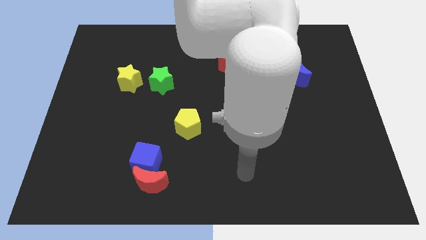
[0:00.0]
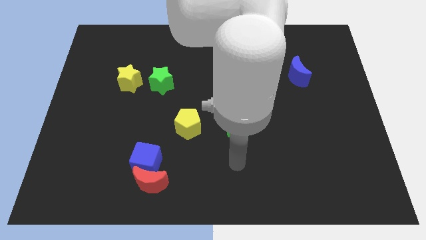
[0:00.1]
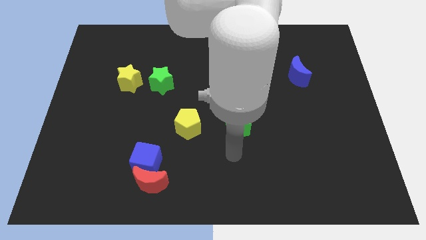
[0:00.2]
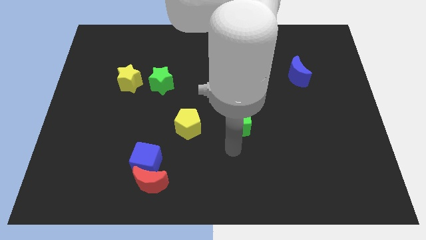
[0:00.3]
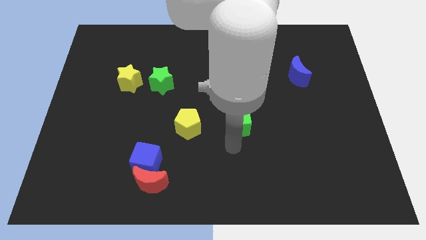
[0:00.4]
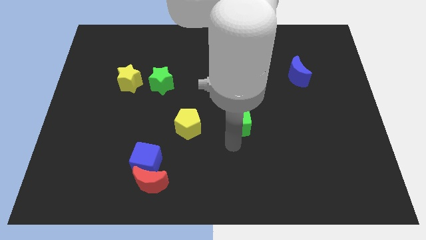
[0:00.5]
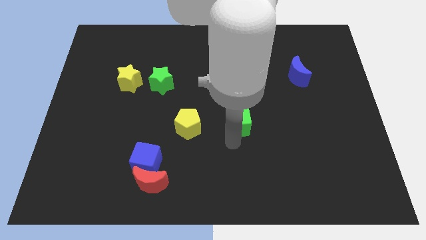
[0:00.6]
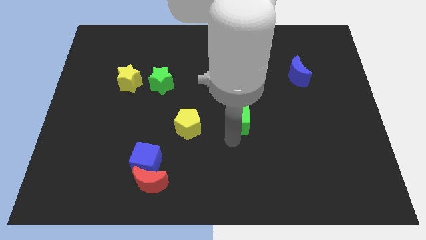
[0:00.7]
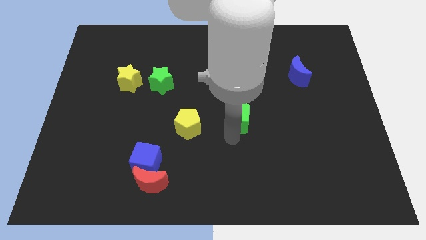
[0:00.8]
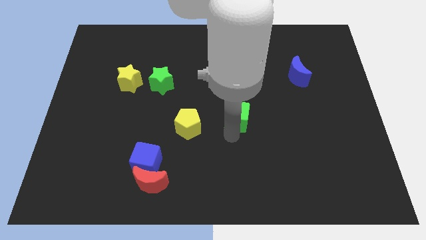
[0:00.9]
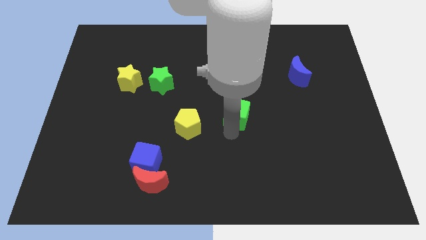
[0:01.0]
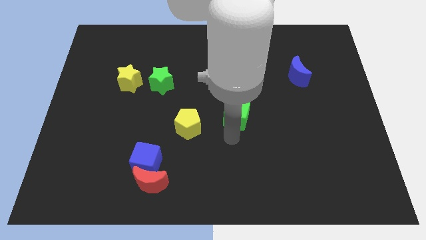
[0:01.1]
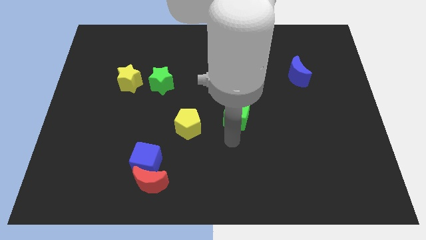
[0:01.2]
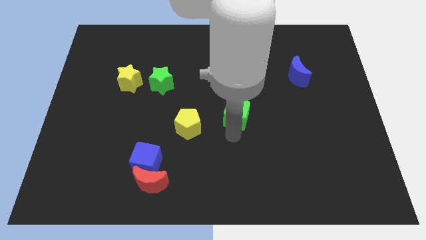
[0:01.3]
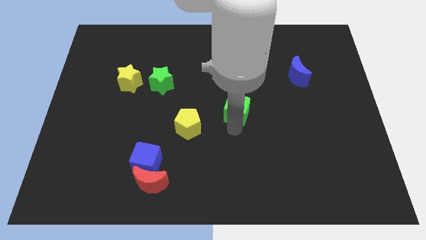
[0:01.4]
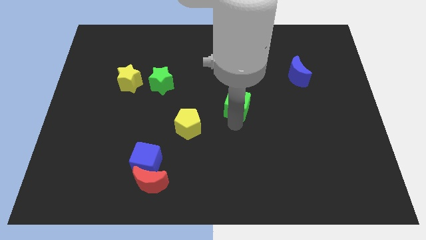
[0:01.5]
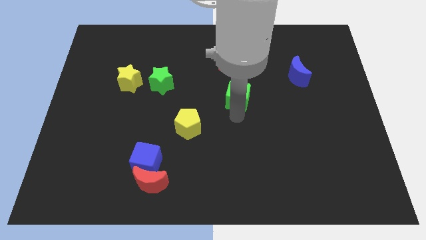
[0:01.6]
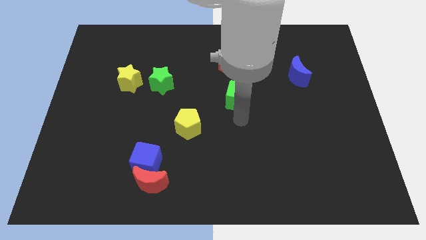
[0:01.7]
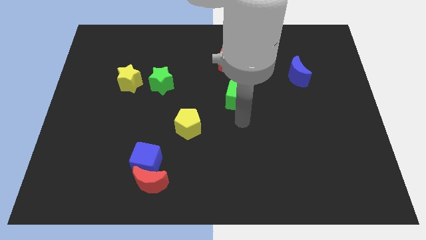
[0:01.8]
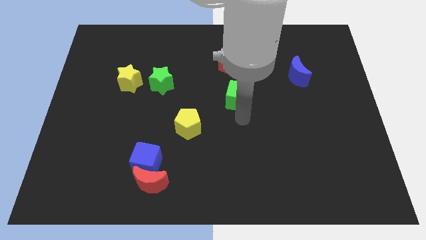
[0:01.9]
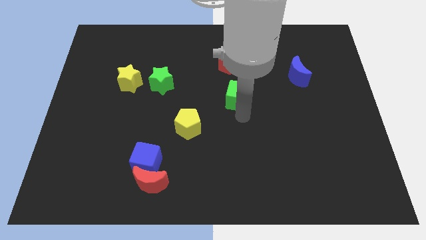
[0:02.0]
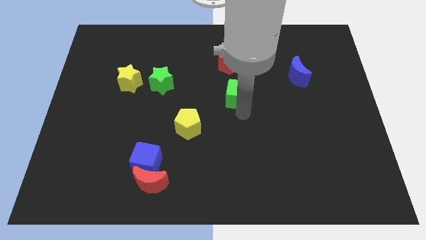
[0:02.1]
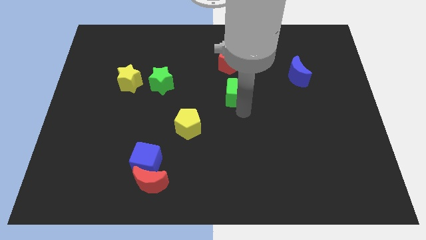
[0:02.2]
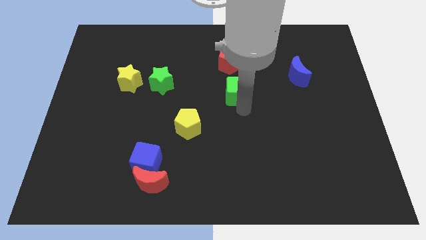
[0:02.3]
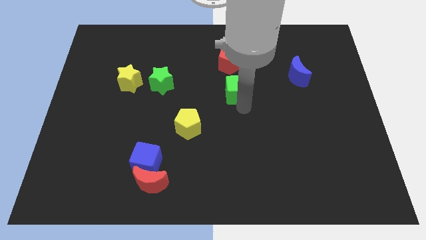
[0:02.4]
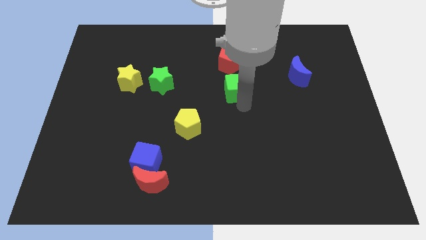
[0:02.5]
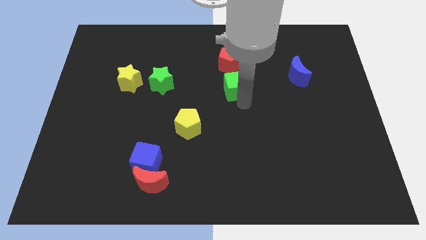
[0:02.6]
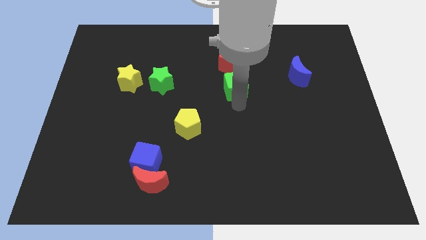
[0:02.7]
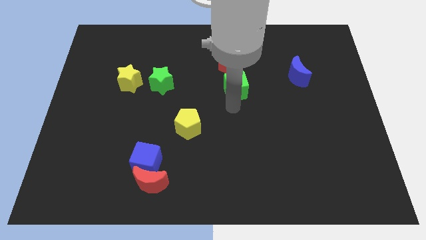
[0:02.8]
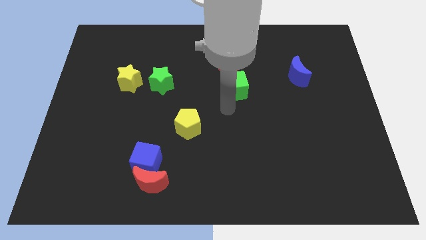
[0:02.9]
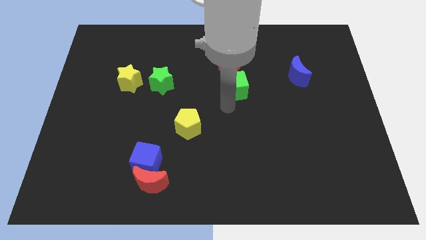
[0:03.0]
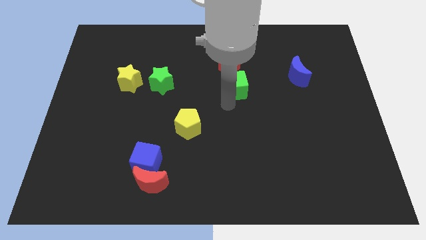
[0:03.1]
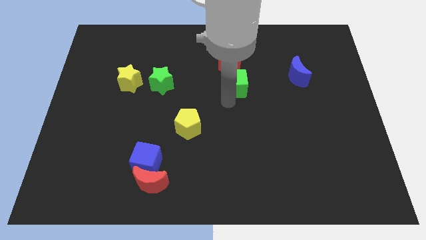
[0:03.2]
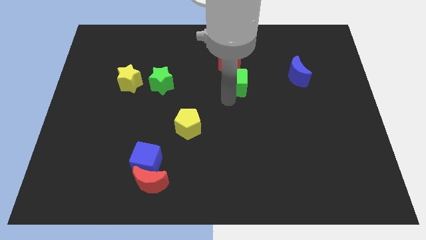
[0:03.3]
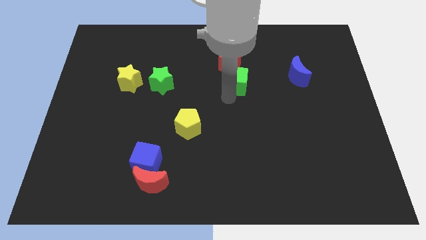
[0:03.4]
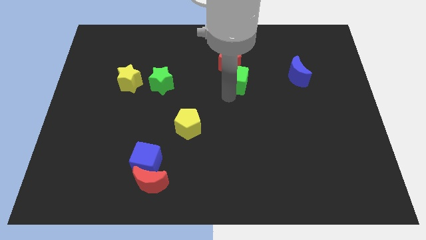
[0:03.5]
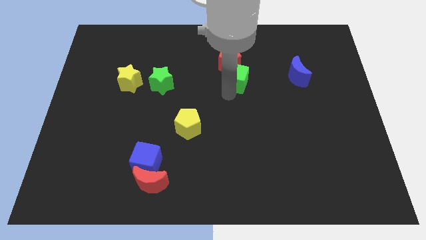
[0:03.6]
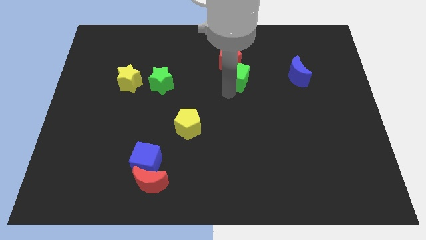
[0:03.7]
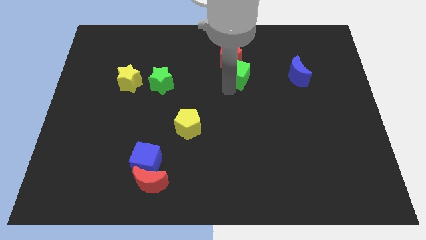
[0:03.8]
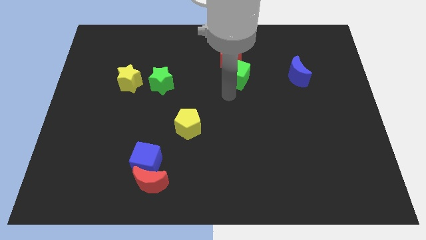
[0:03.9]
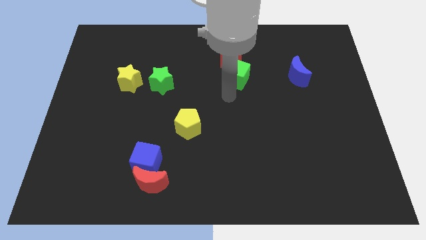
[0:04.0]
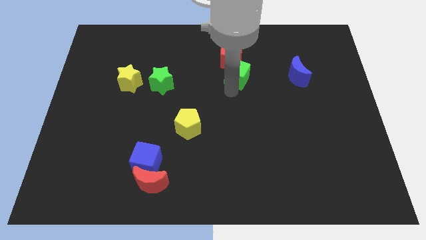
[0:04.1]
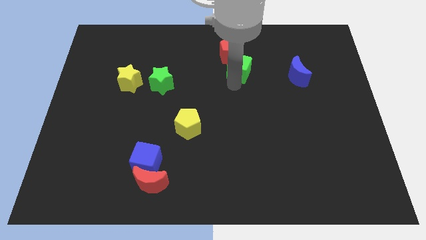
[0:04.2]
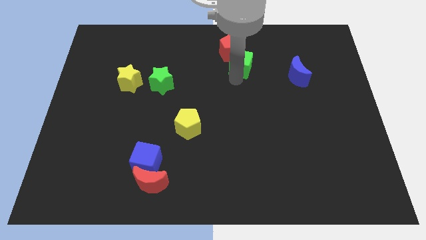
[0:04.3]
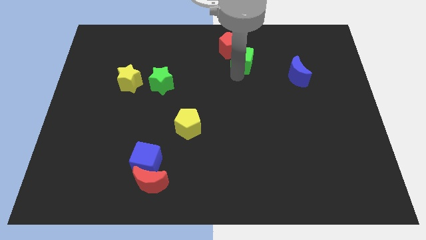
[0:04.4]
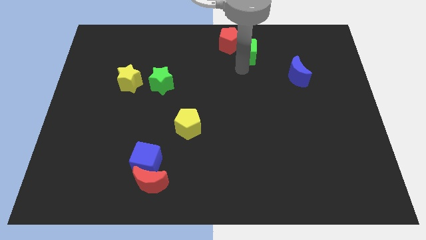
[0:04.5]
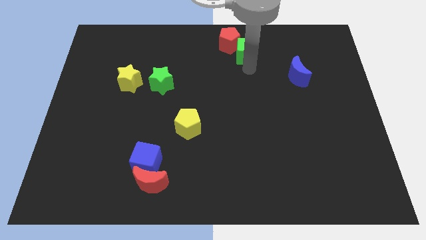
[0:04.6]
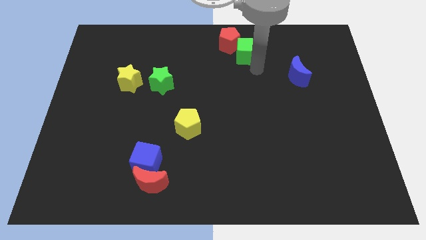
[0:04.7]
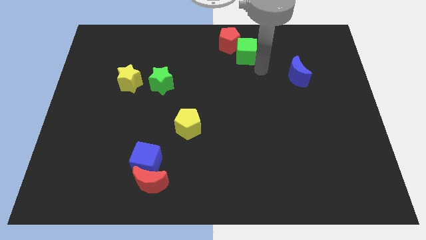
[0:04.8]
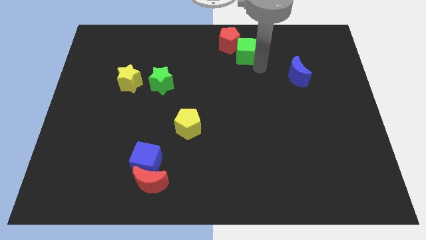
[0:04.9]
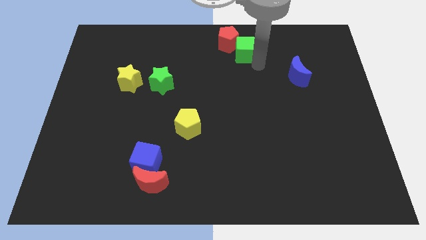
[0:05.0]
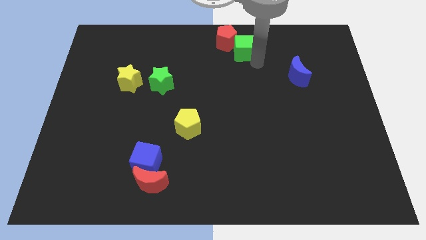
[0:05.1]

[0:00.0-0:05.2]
move the green cube to the towards your base

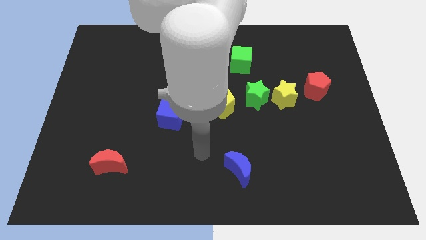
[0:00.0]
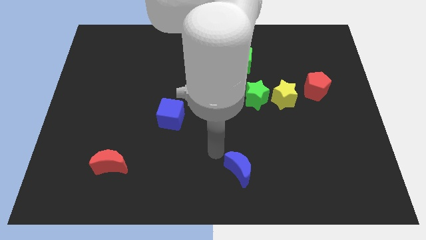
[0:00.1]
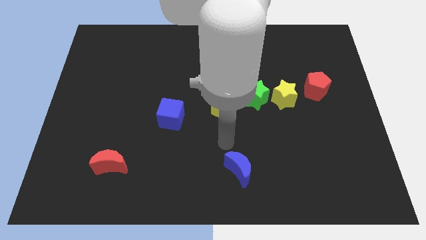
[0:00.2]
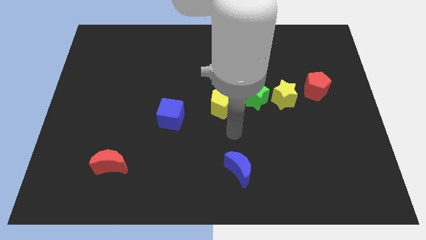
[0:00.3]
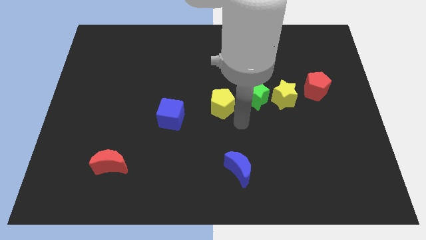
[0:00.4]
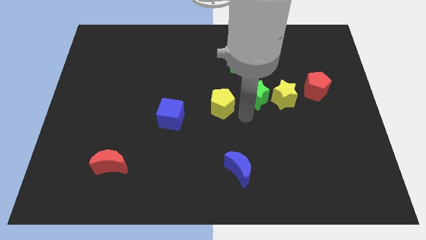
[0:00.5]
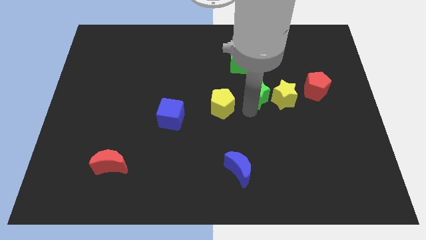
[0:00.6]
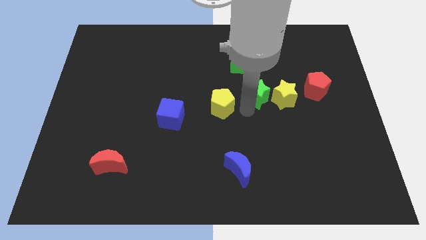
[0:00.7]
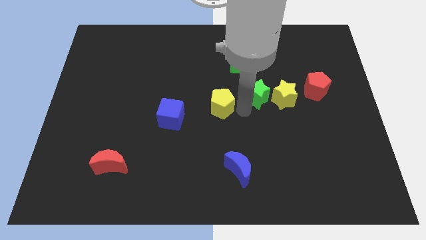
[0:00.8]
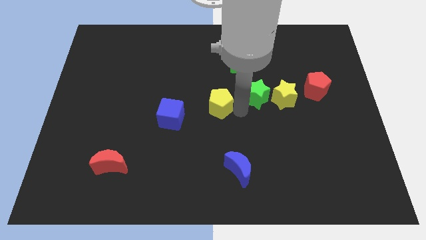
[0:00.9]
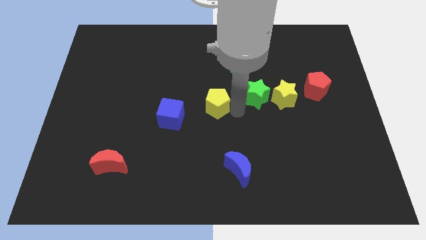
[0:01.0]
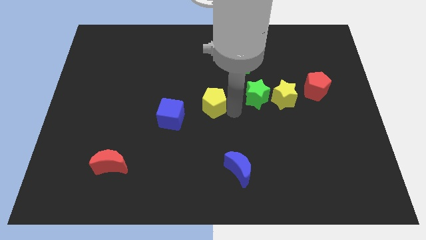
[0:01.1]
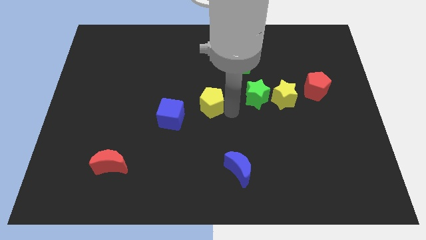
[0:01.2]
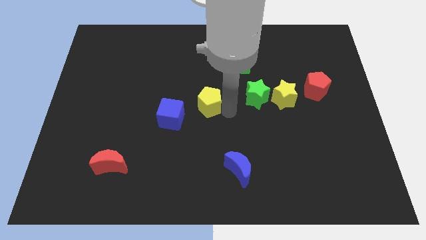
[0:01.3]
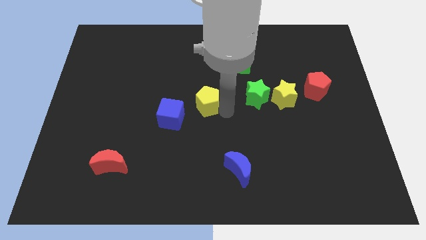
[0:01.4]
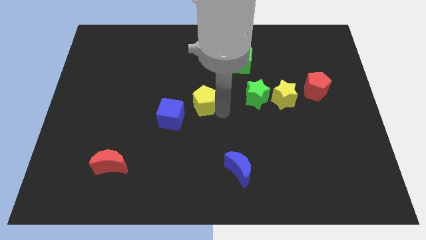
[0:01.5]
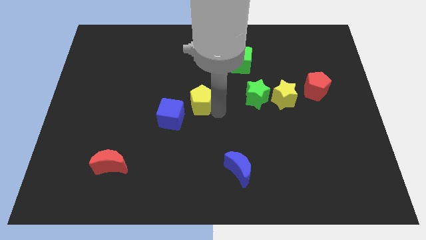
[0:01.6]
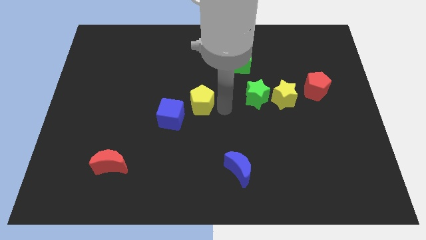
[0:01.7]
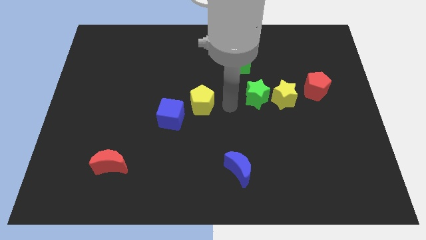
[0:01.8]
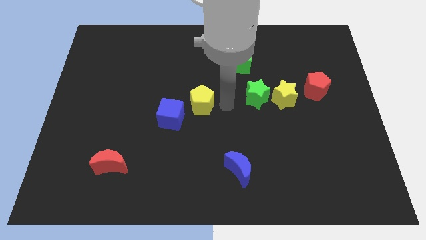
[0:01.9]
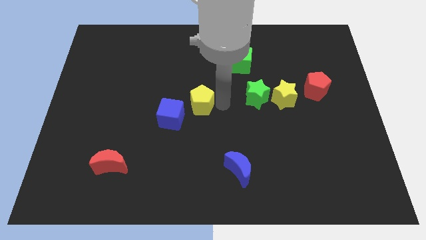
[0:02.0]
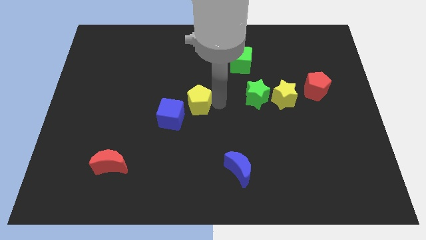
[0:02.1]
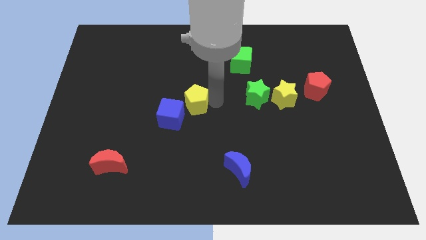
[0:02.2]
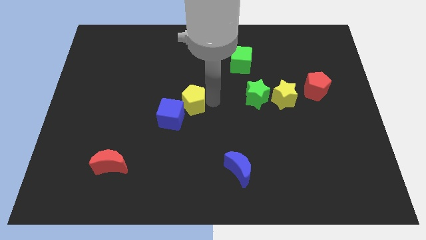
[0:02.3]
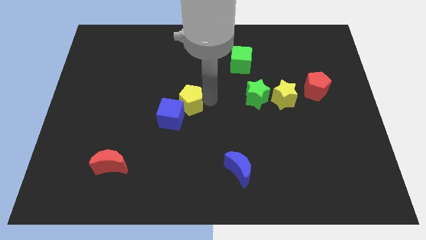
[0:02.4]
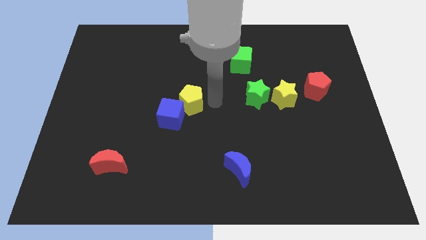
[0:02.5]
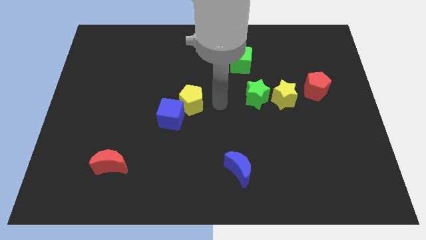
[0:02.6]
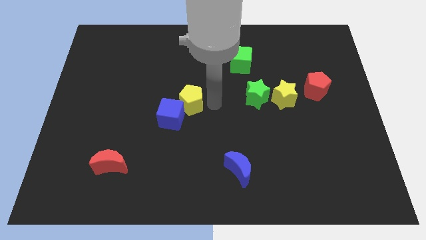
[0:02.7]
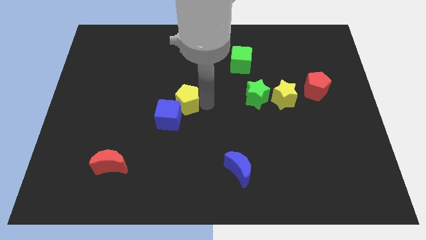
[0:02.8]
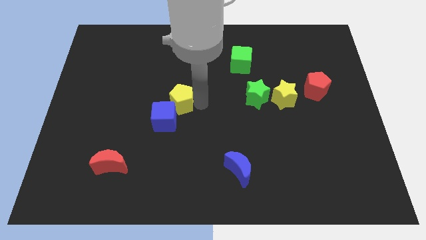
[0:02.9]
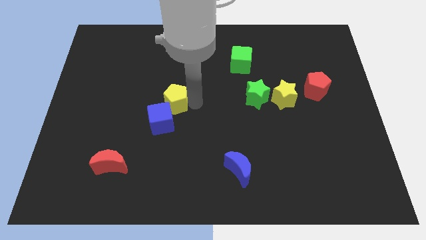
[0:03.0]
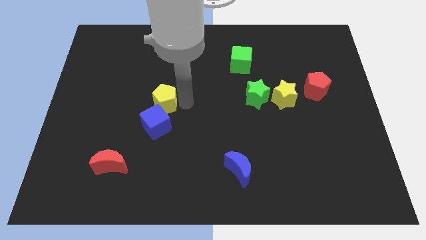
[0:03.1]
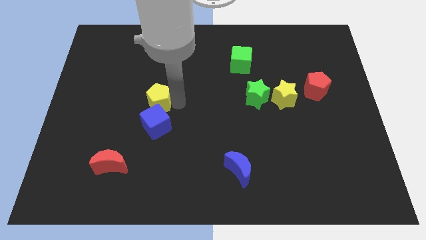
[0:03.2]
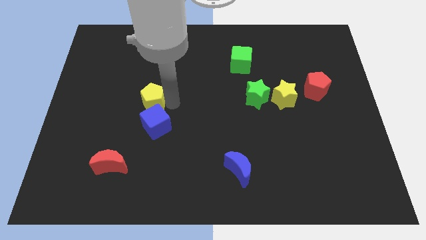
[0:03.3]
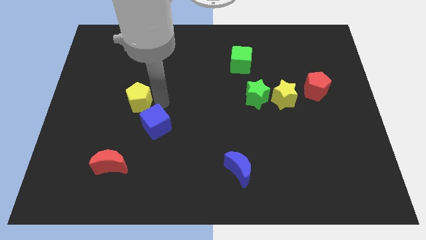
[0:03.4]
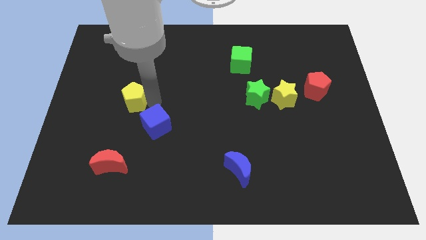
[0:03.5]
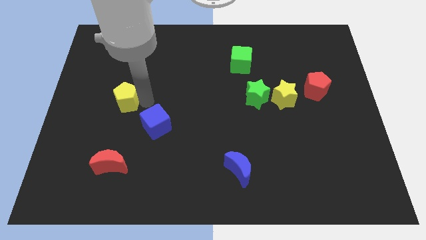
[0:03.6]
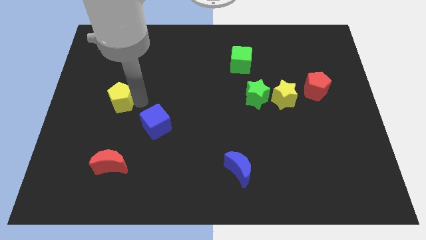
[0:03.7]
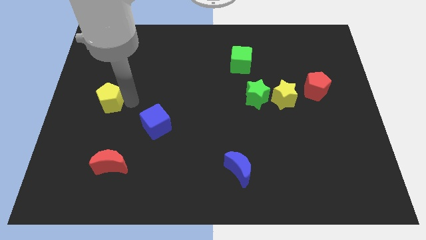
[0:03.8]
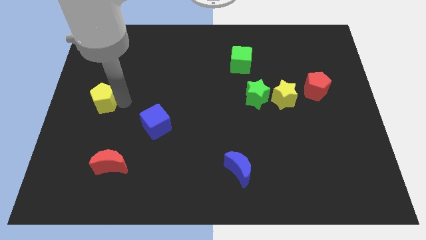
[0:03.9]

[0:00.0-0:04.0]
put the yellow pentagon to the center left
